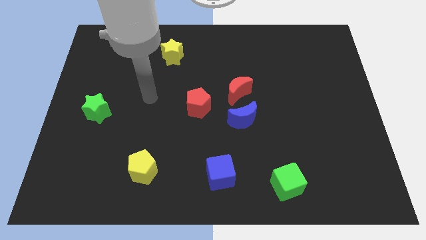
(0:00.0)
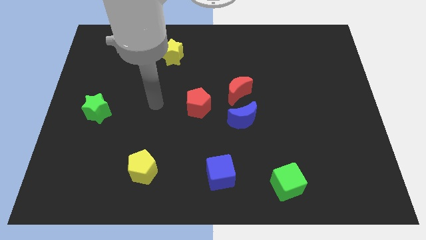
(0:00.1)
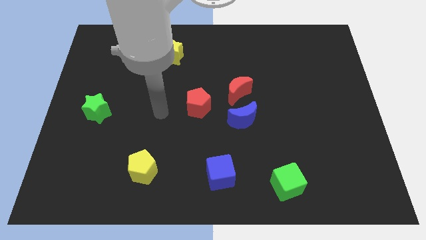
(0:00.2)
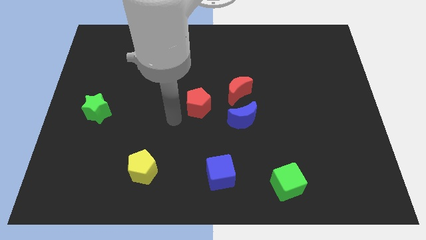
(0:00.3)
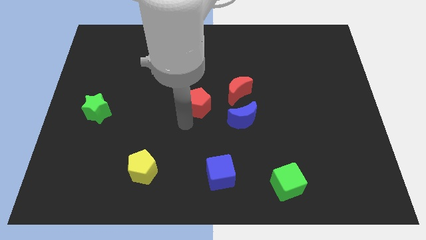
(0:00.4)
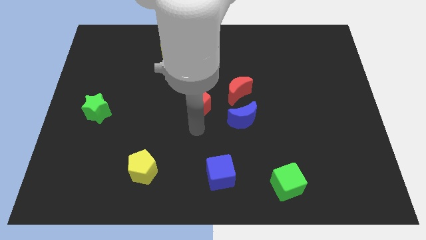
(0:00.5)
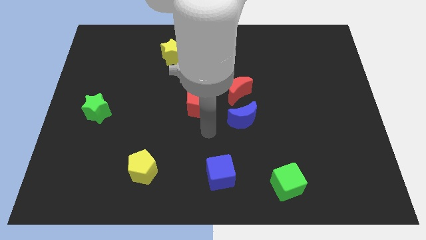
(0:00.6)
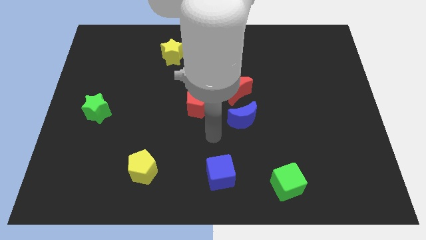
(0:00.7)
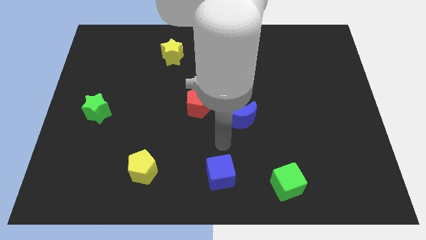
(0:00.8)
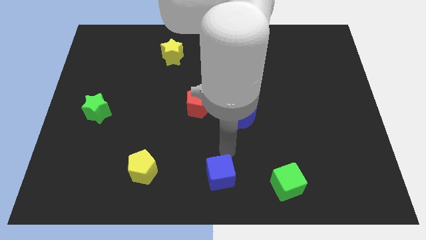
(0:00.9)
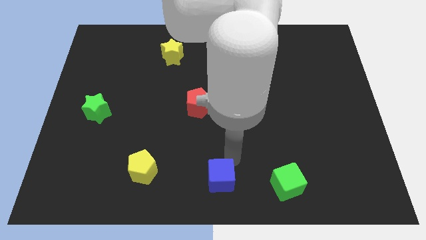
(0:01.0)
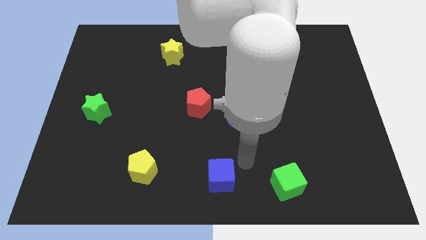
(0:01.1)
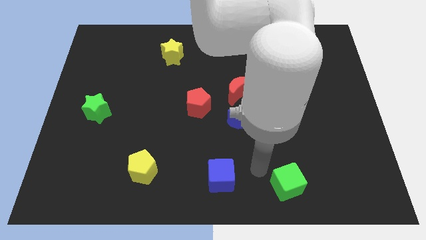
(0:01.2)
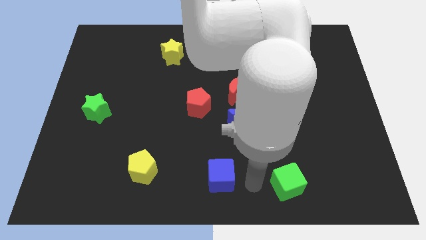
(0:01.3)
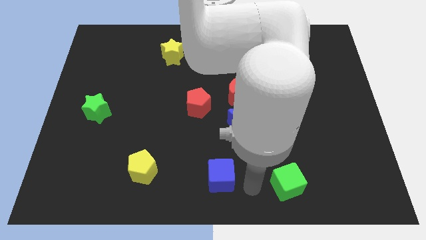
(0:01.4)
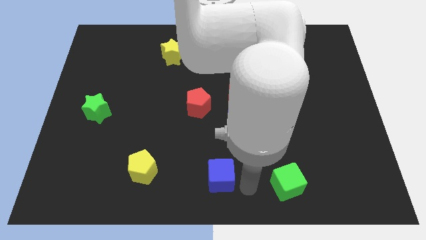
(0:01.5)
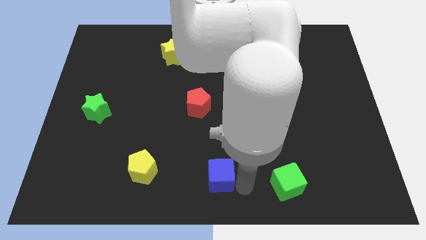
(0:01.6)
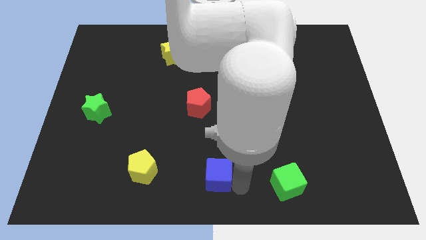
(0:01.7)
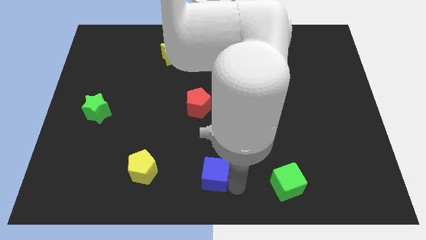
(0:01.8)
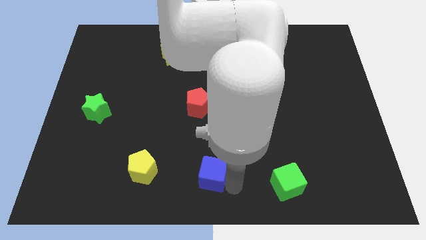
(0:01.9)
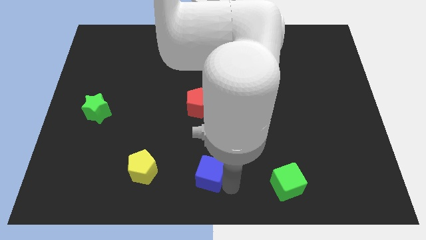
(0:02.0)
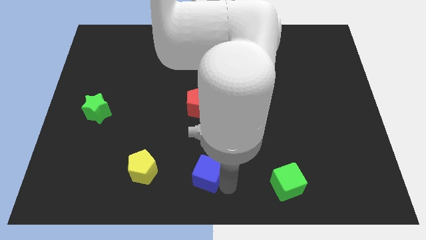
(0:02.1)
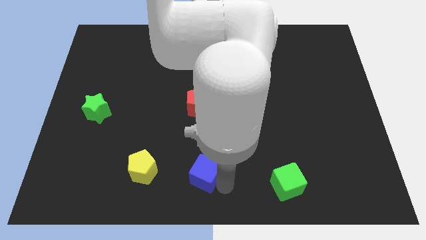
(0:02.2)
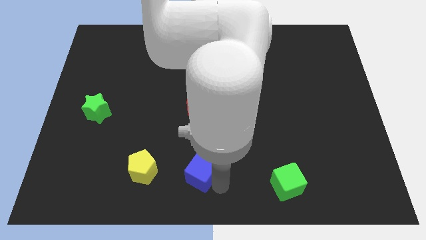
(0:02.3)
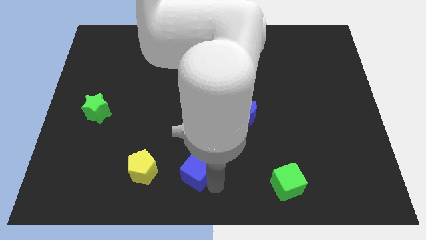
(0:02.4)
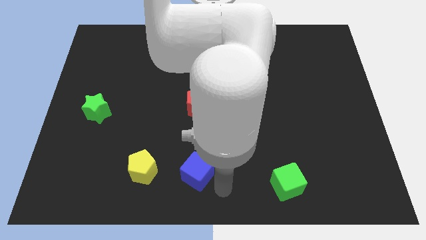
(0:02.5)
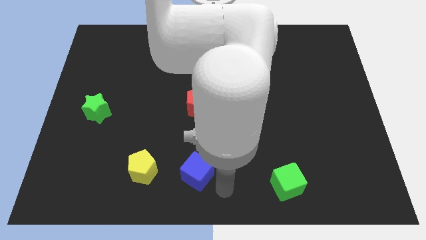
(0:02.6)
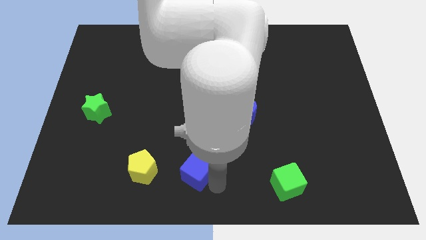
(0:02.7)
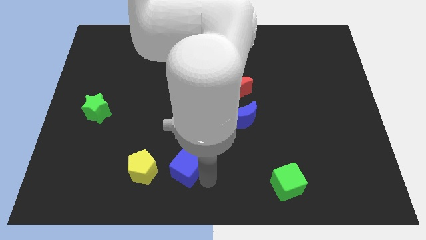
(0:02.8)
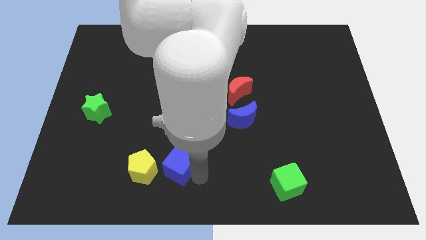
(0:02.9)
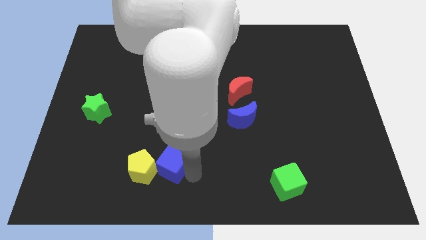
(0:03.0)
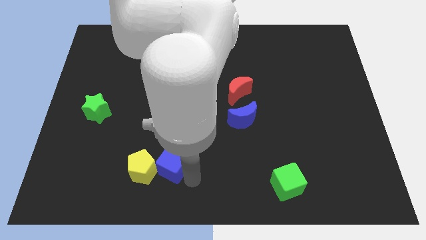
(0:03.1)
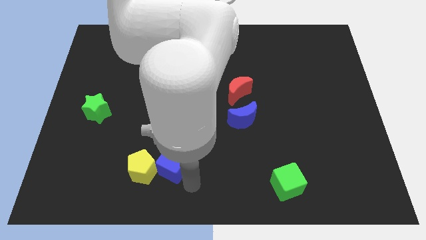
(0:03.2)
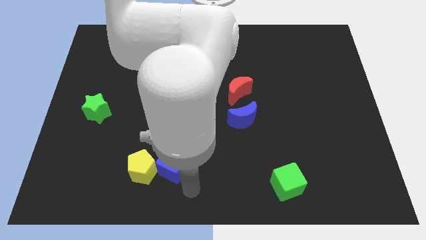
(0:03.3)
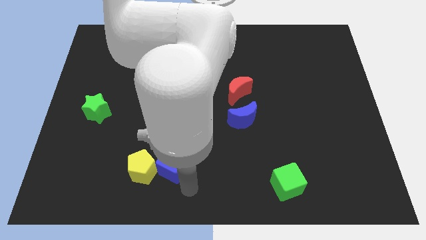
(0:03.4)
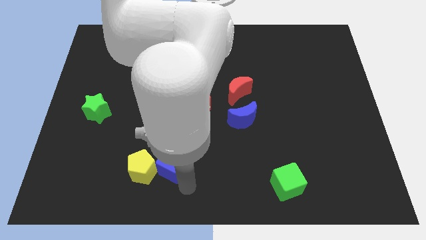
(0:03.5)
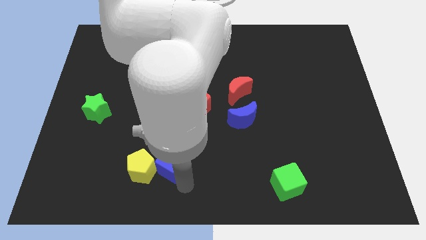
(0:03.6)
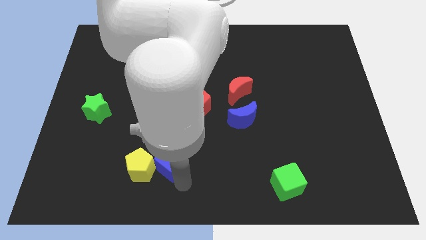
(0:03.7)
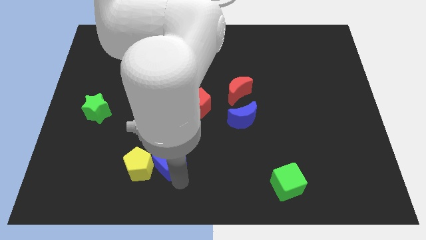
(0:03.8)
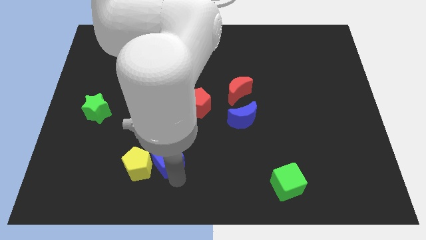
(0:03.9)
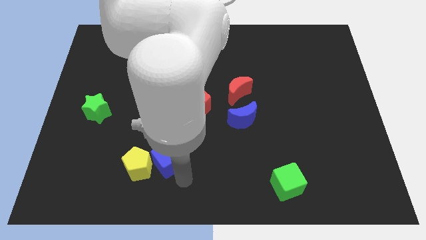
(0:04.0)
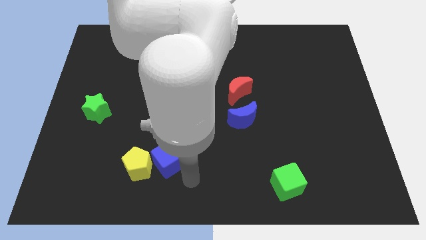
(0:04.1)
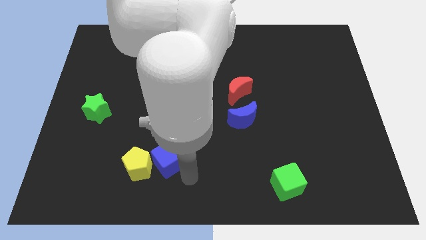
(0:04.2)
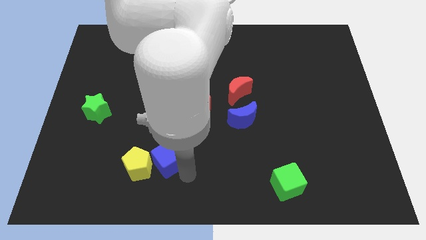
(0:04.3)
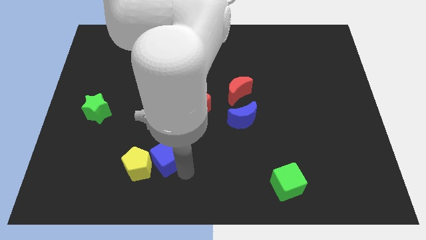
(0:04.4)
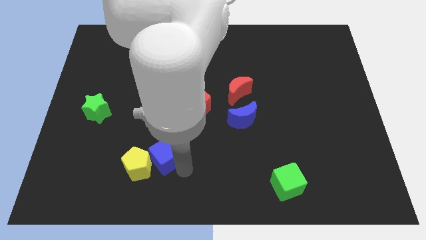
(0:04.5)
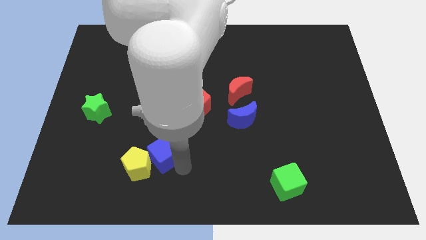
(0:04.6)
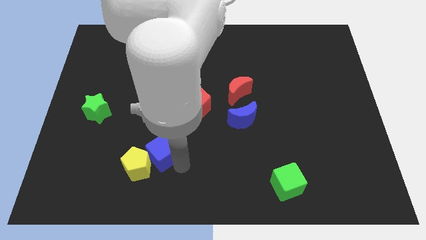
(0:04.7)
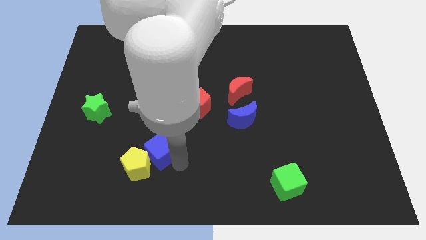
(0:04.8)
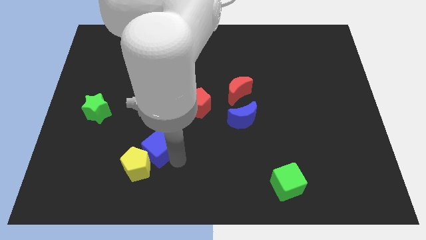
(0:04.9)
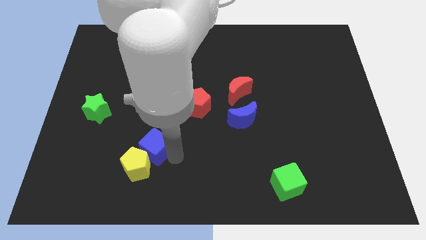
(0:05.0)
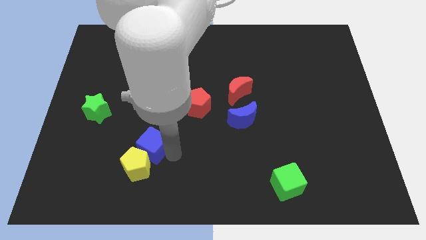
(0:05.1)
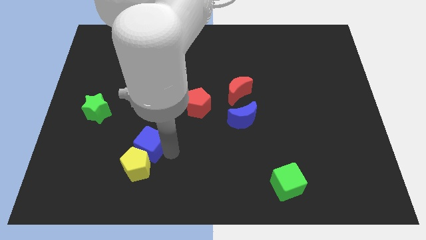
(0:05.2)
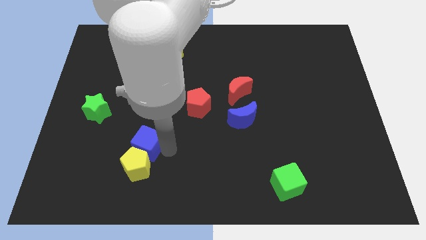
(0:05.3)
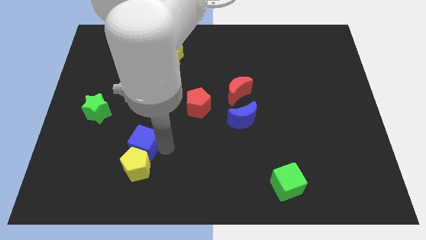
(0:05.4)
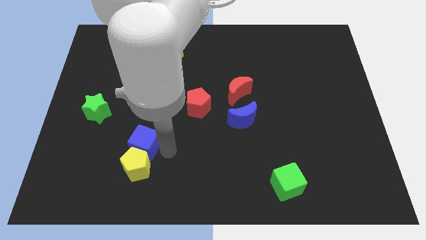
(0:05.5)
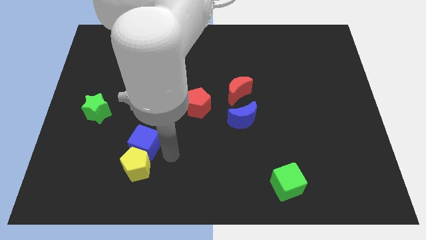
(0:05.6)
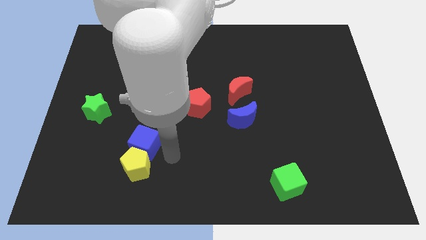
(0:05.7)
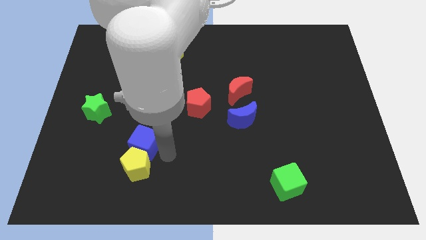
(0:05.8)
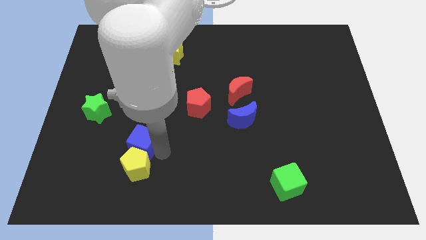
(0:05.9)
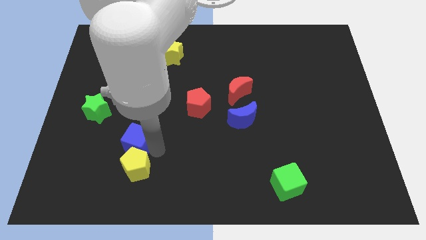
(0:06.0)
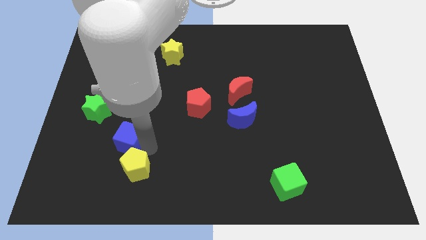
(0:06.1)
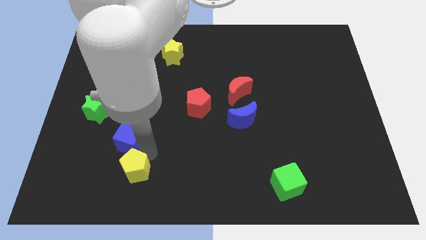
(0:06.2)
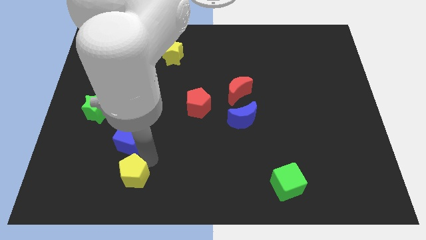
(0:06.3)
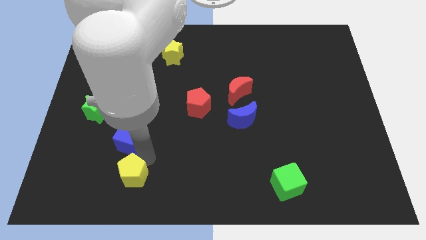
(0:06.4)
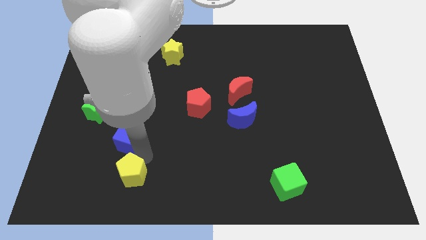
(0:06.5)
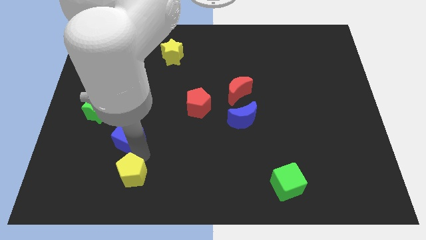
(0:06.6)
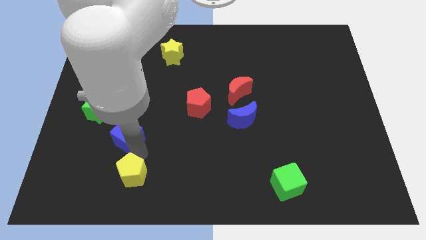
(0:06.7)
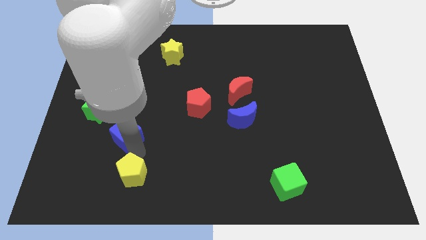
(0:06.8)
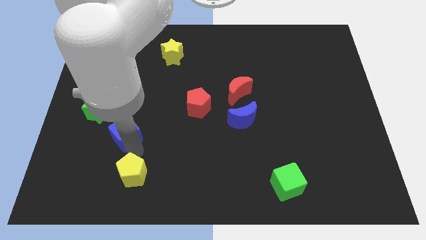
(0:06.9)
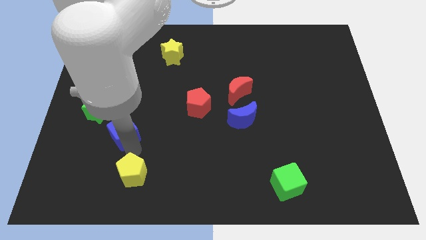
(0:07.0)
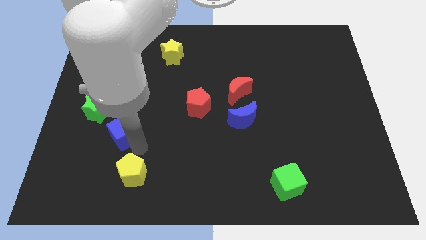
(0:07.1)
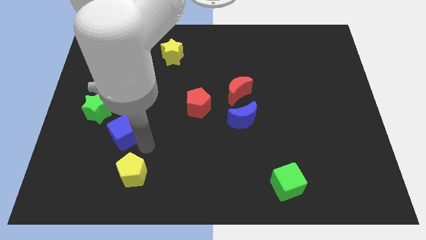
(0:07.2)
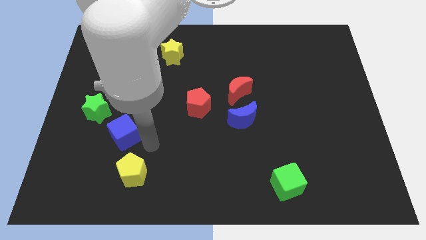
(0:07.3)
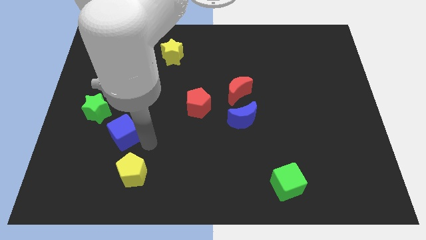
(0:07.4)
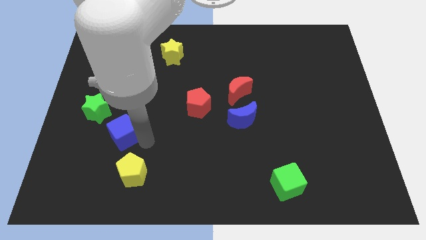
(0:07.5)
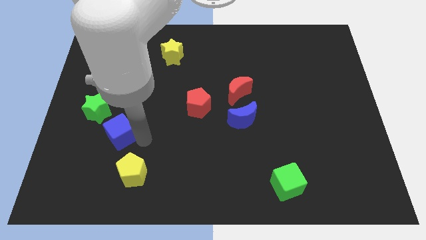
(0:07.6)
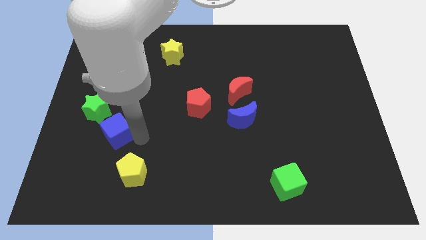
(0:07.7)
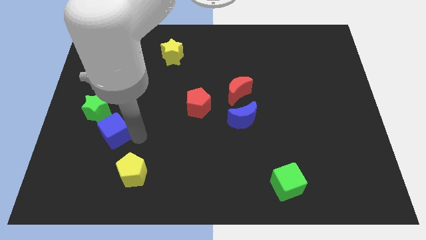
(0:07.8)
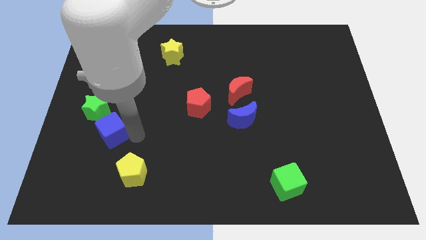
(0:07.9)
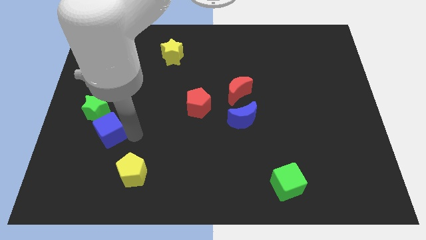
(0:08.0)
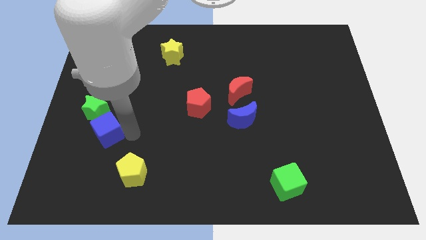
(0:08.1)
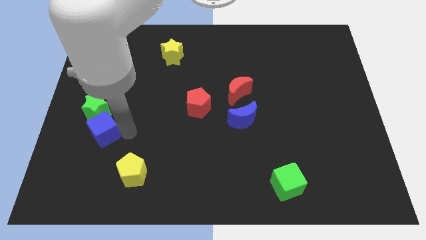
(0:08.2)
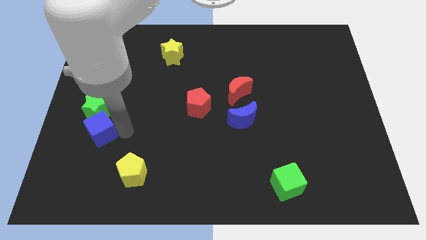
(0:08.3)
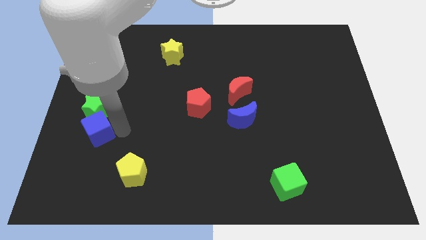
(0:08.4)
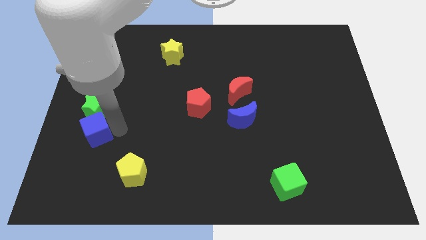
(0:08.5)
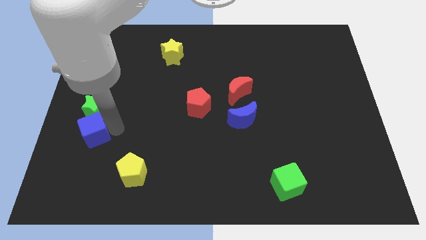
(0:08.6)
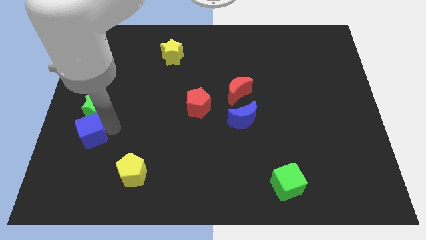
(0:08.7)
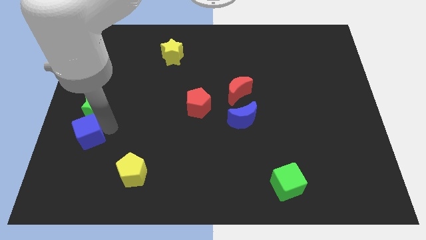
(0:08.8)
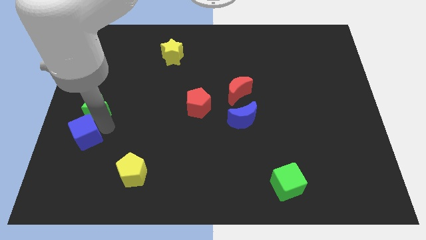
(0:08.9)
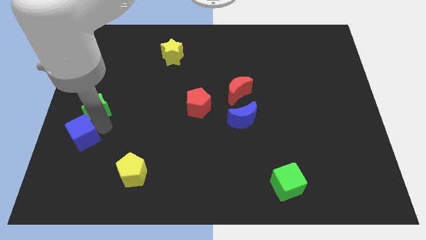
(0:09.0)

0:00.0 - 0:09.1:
put the blue cube to the left side
